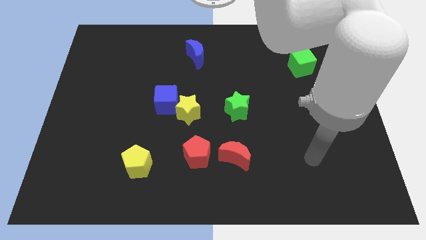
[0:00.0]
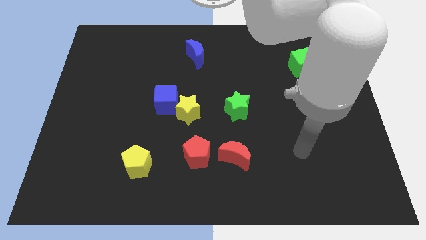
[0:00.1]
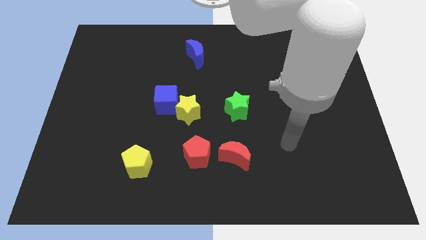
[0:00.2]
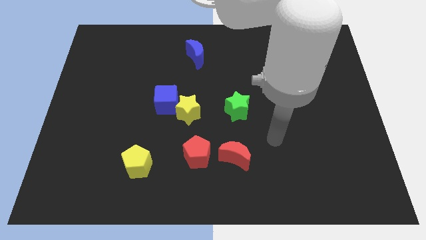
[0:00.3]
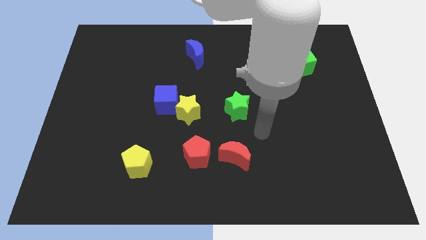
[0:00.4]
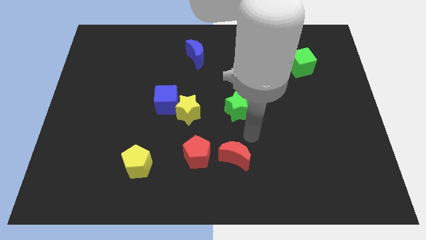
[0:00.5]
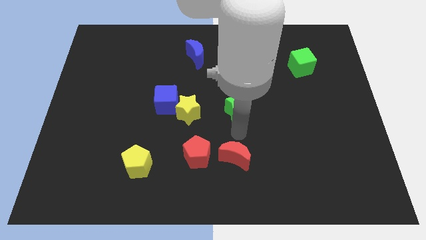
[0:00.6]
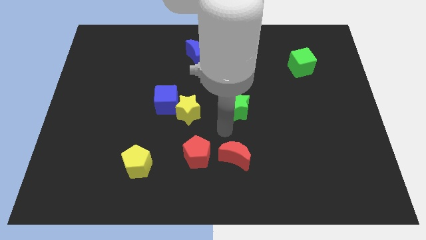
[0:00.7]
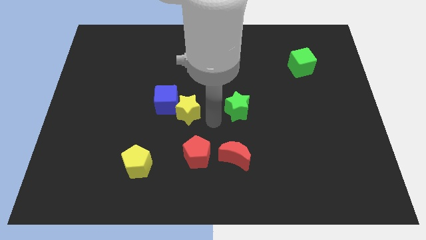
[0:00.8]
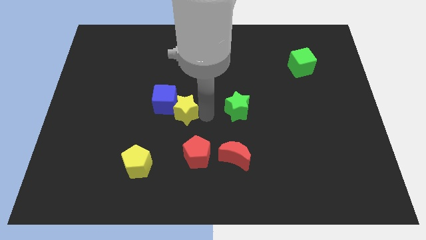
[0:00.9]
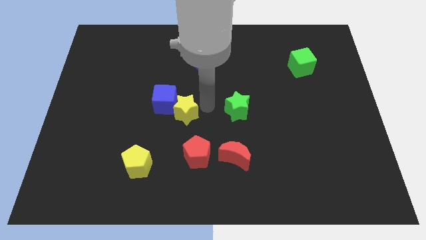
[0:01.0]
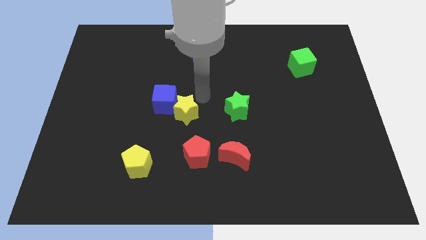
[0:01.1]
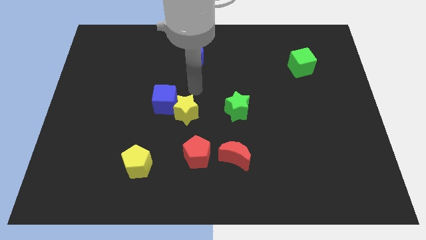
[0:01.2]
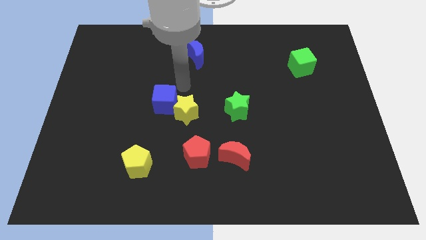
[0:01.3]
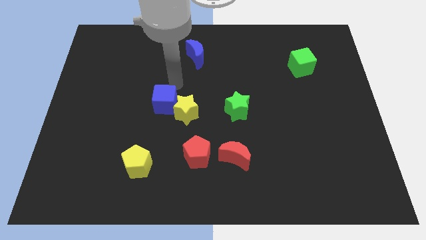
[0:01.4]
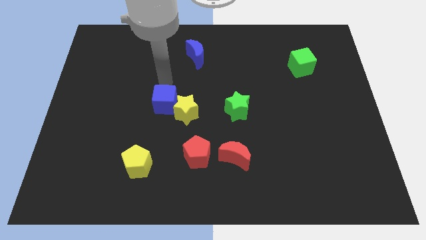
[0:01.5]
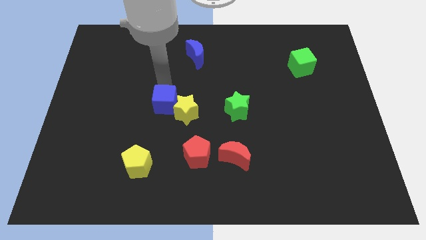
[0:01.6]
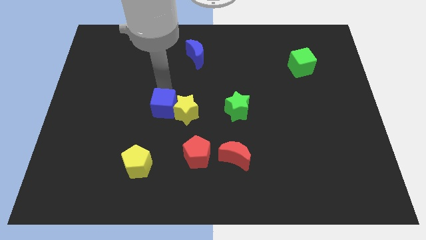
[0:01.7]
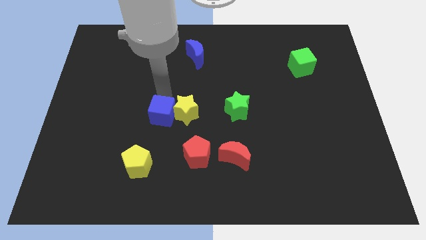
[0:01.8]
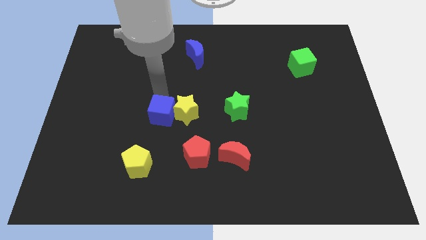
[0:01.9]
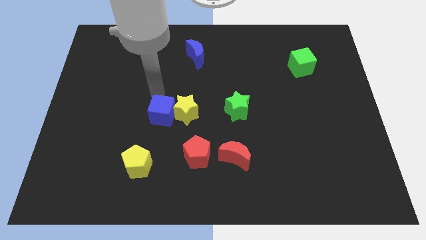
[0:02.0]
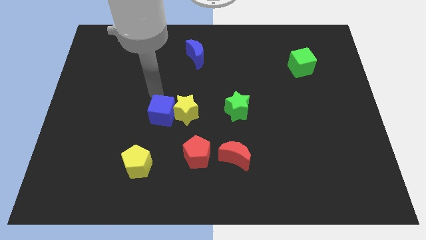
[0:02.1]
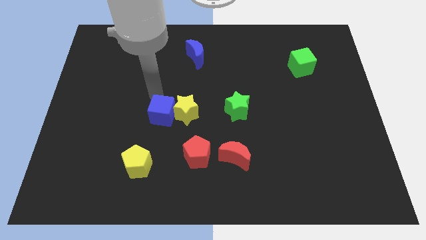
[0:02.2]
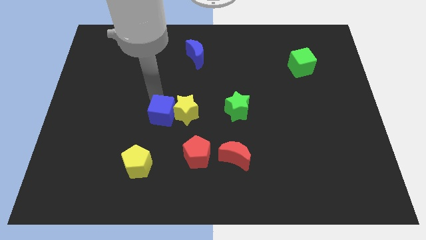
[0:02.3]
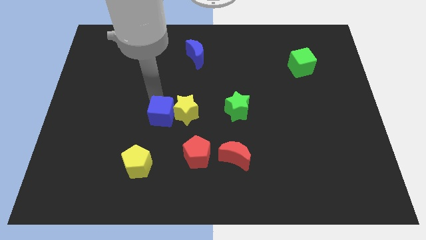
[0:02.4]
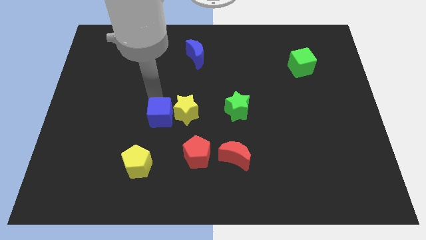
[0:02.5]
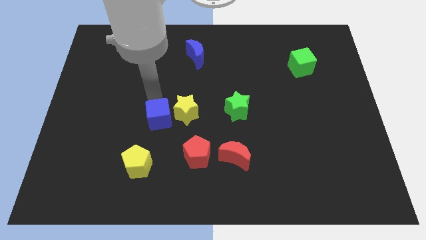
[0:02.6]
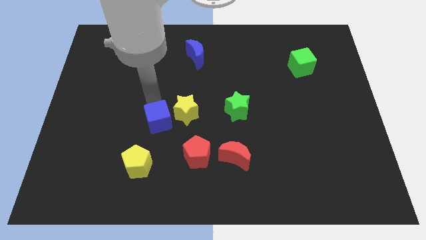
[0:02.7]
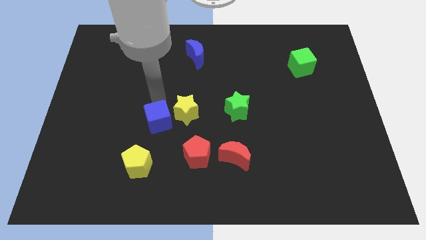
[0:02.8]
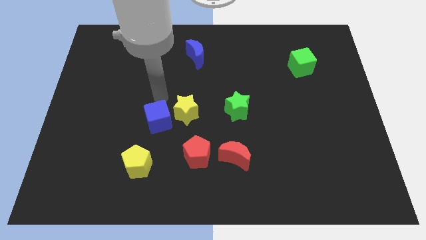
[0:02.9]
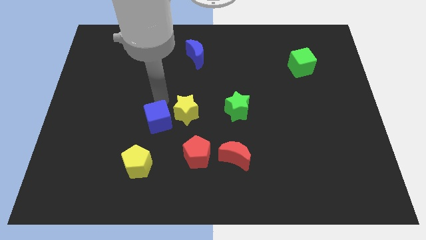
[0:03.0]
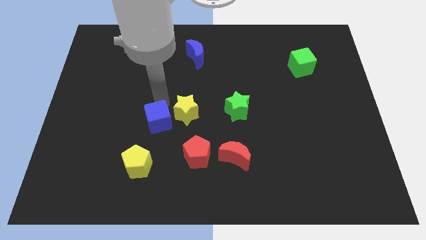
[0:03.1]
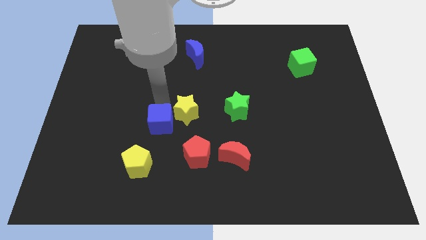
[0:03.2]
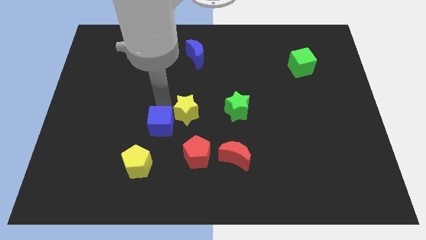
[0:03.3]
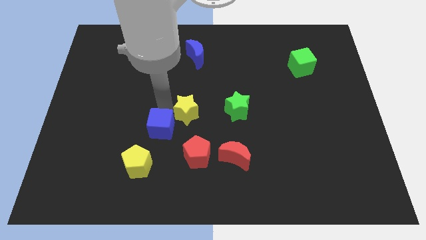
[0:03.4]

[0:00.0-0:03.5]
slightly push the blue cube down

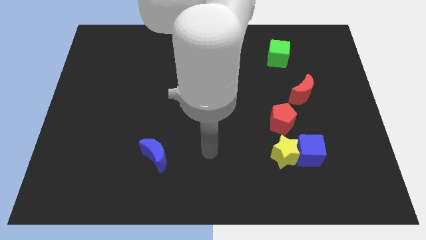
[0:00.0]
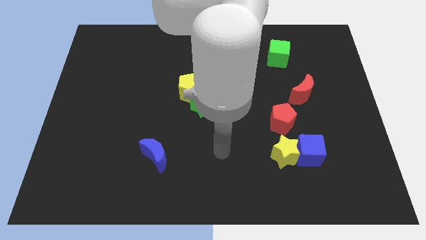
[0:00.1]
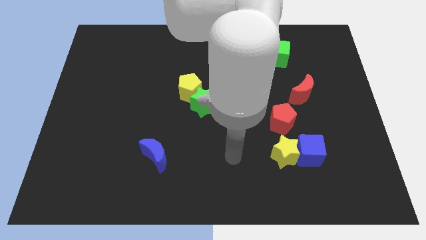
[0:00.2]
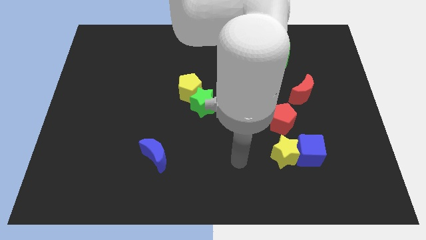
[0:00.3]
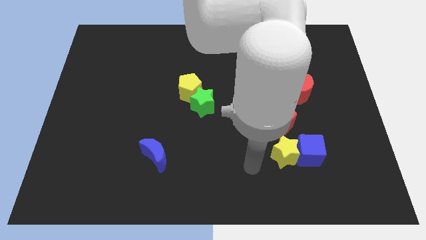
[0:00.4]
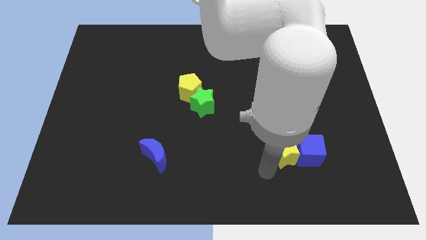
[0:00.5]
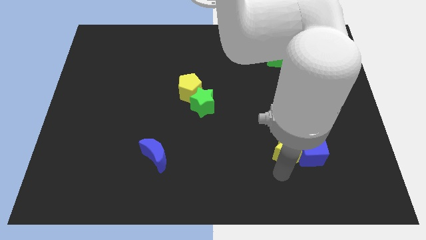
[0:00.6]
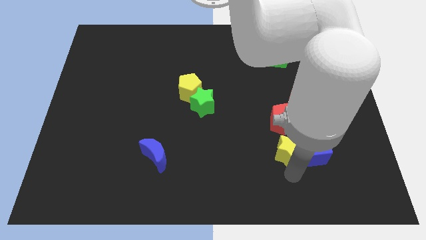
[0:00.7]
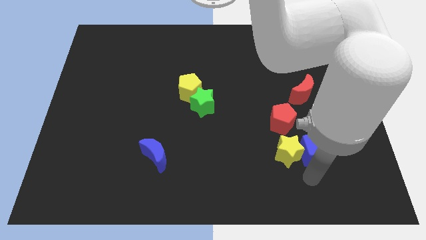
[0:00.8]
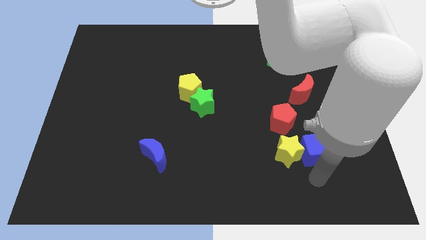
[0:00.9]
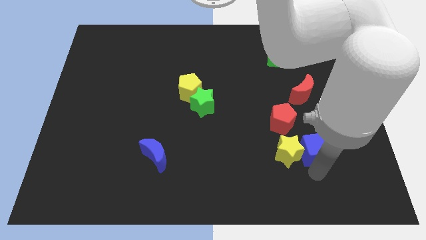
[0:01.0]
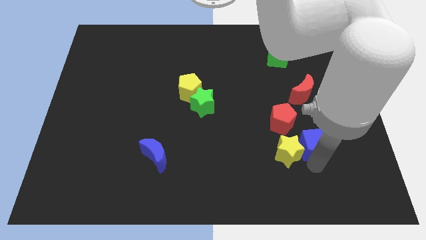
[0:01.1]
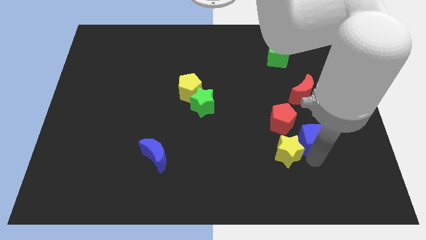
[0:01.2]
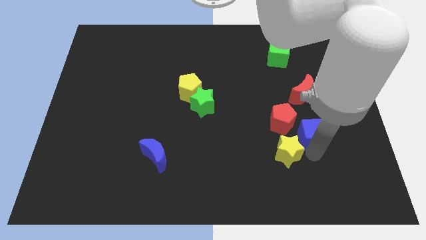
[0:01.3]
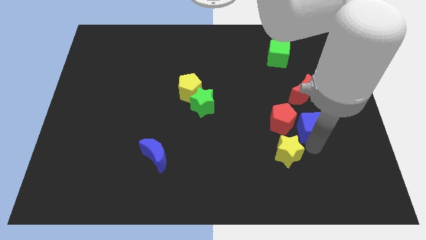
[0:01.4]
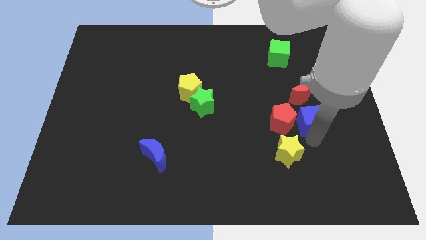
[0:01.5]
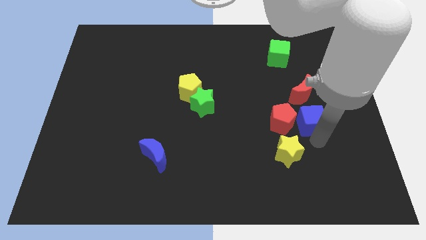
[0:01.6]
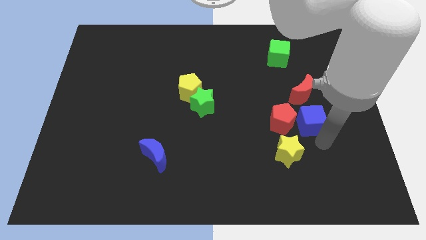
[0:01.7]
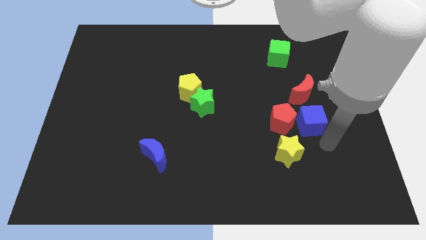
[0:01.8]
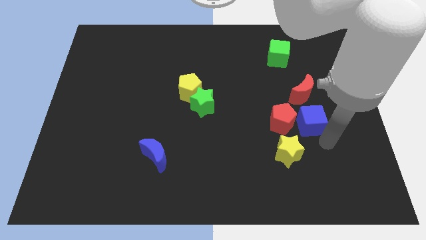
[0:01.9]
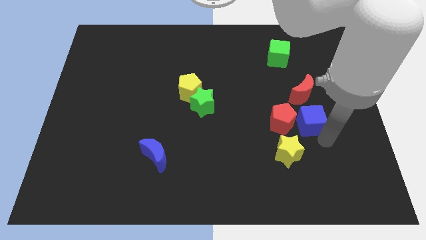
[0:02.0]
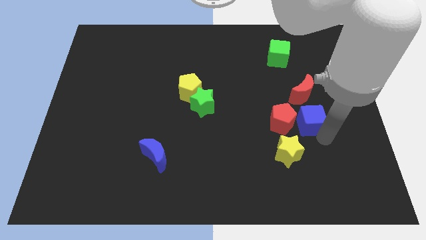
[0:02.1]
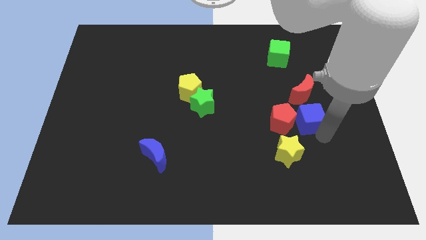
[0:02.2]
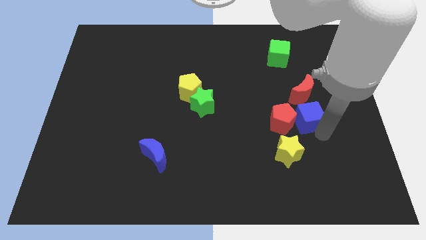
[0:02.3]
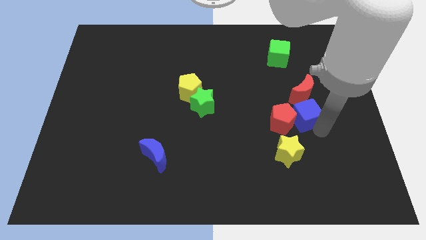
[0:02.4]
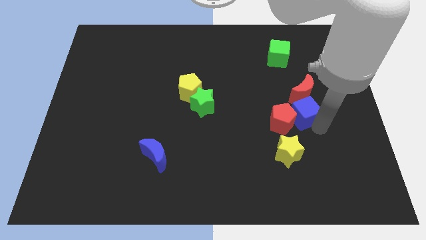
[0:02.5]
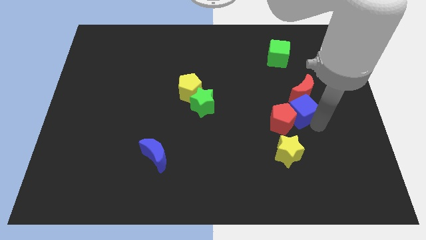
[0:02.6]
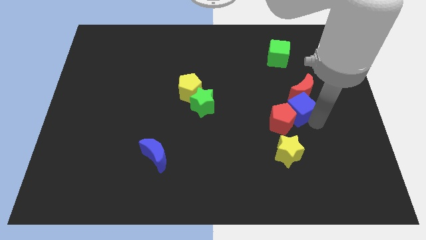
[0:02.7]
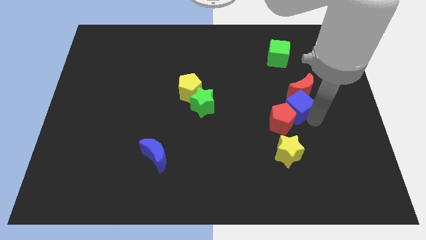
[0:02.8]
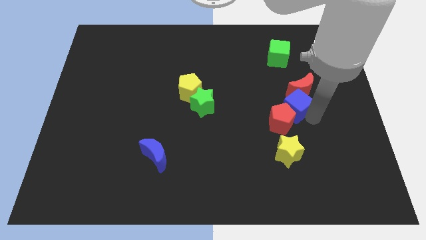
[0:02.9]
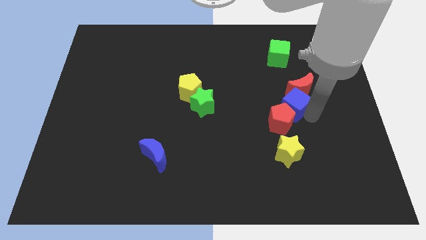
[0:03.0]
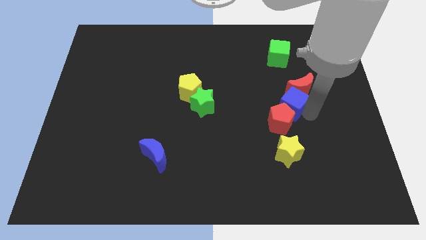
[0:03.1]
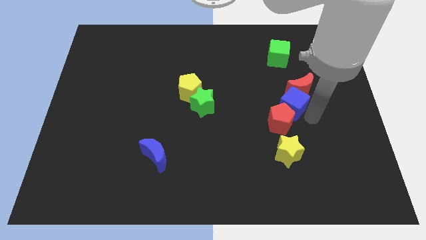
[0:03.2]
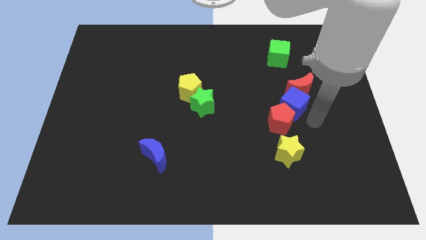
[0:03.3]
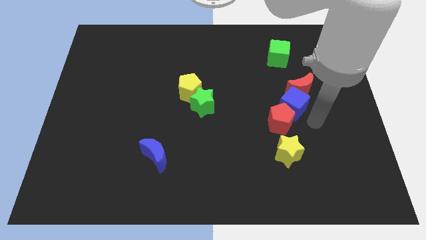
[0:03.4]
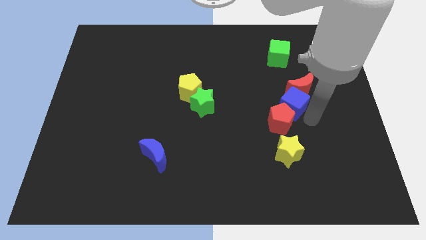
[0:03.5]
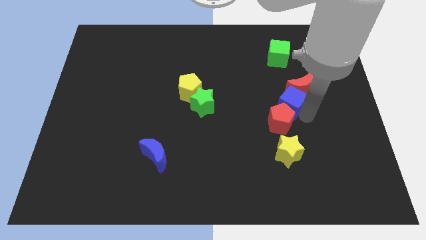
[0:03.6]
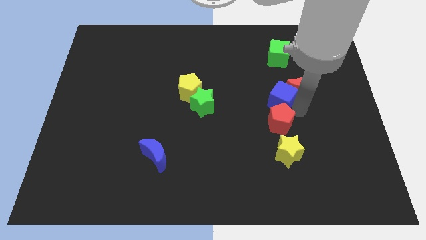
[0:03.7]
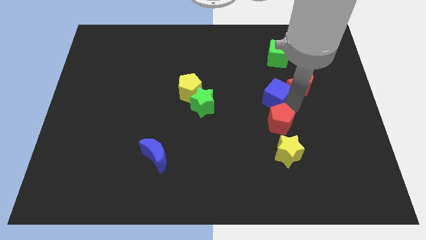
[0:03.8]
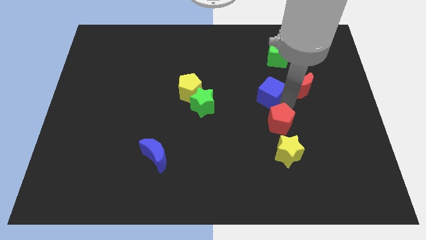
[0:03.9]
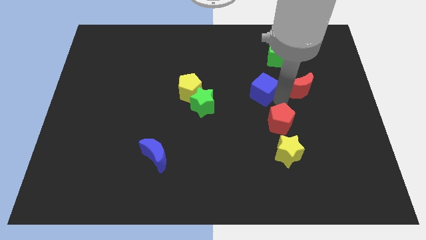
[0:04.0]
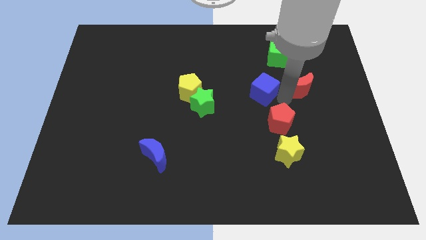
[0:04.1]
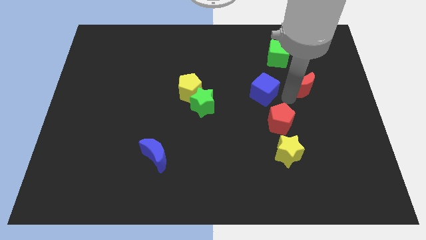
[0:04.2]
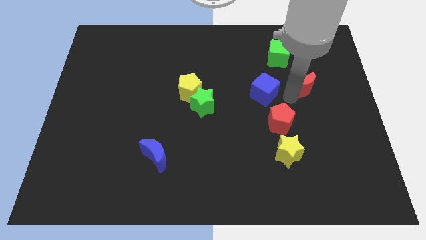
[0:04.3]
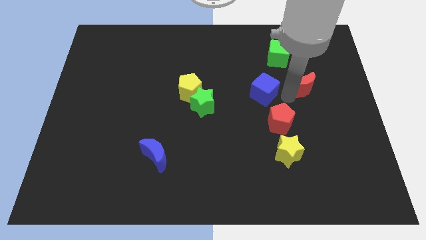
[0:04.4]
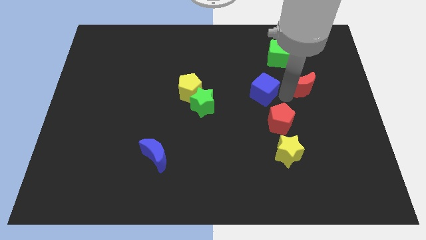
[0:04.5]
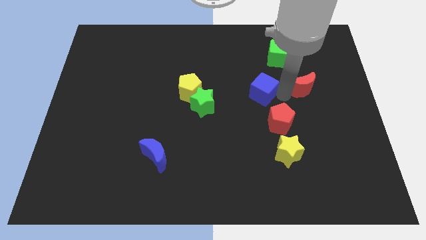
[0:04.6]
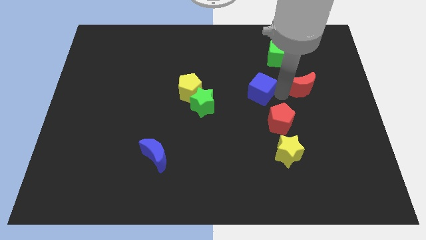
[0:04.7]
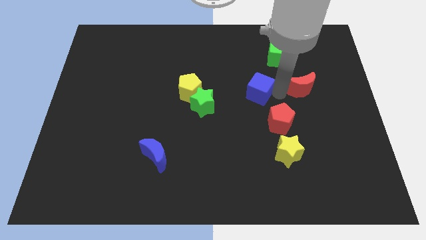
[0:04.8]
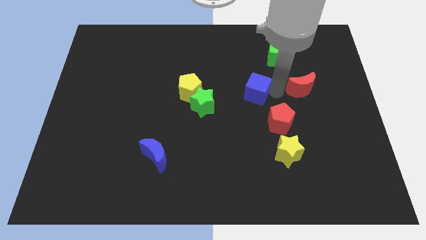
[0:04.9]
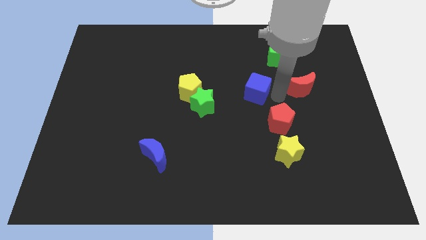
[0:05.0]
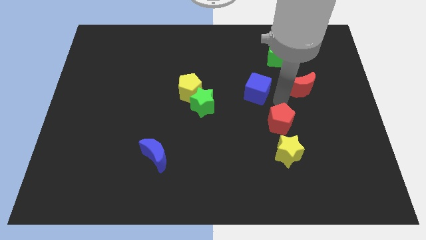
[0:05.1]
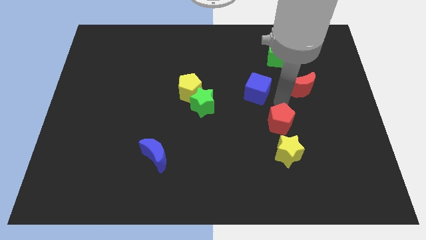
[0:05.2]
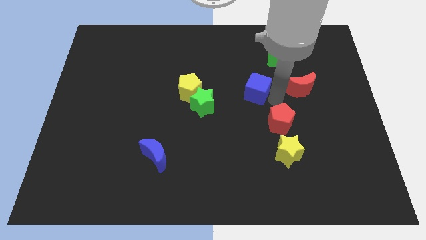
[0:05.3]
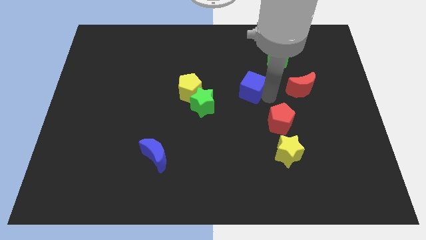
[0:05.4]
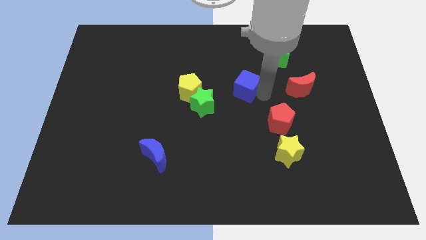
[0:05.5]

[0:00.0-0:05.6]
move the blue cube upwards and then left
